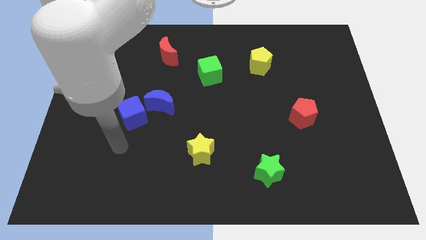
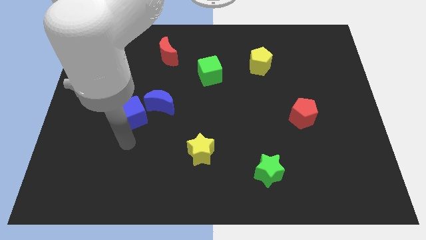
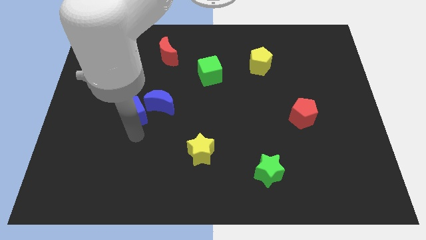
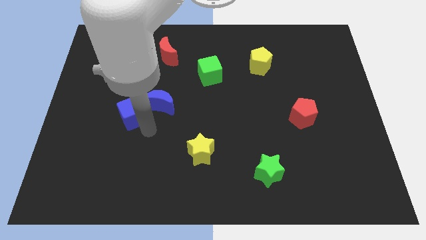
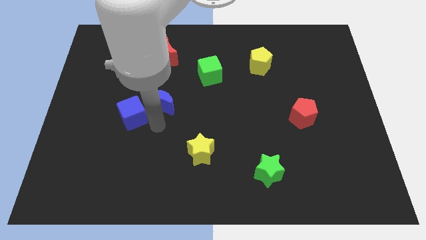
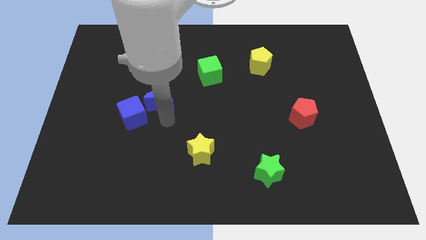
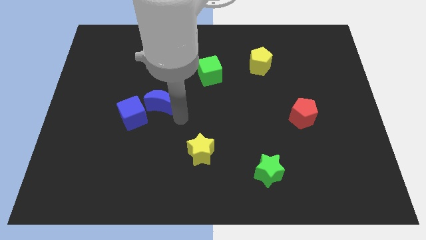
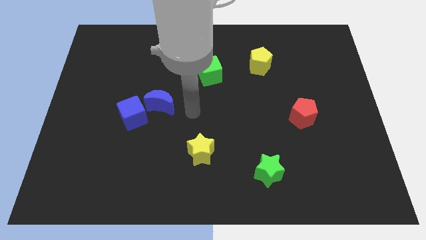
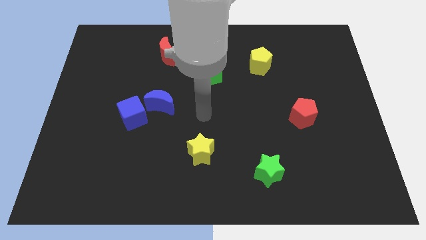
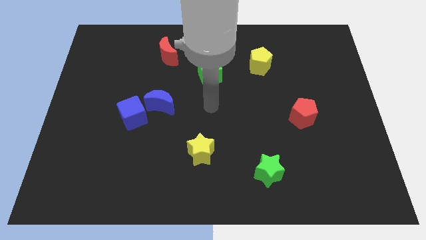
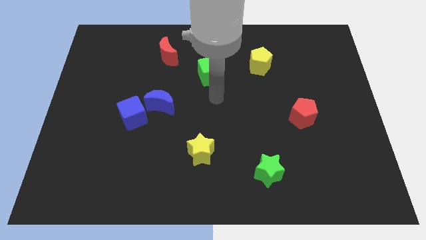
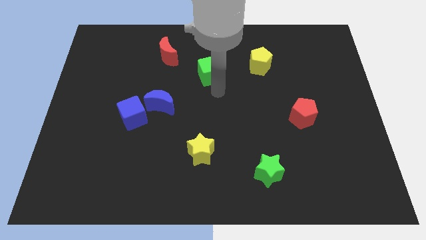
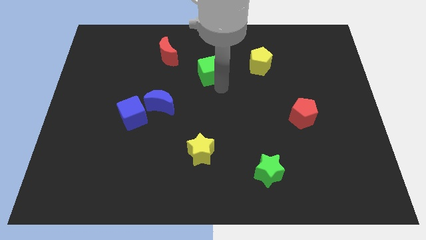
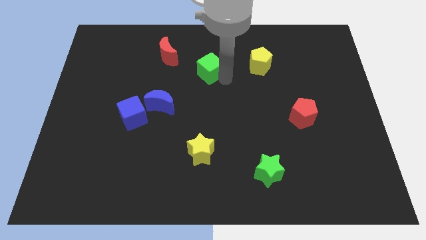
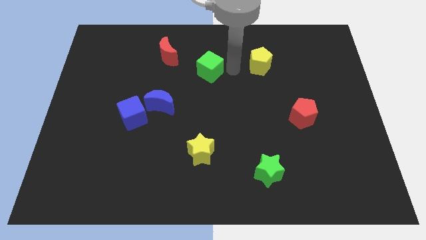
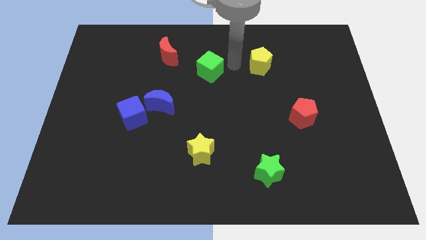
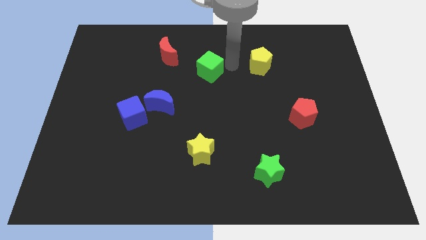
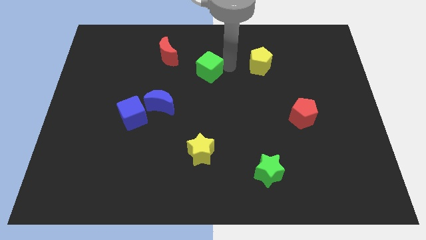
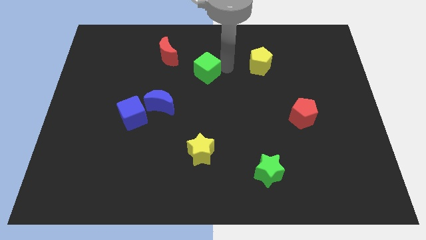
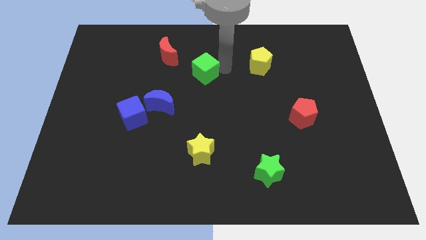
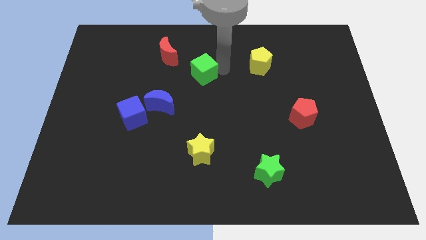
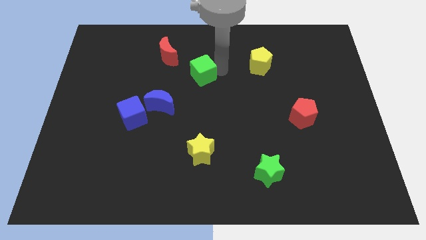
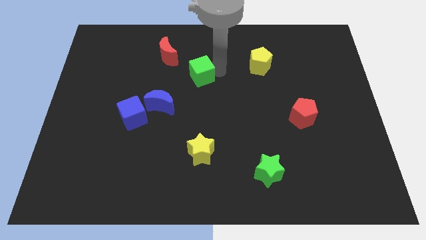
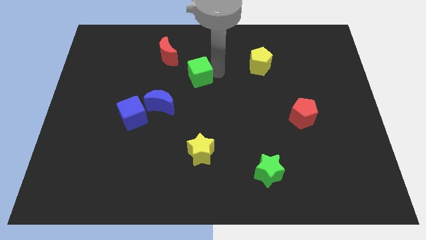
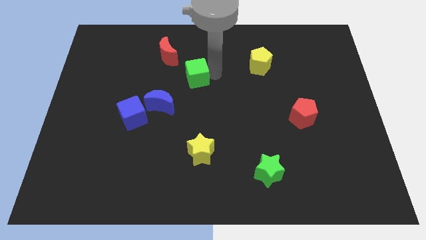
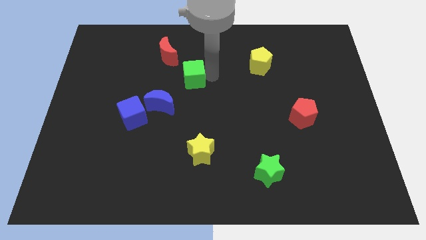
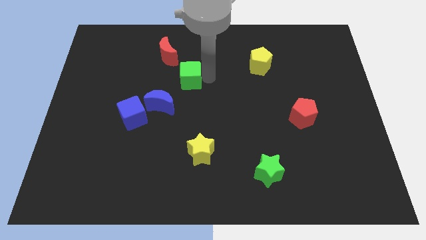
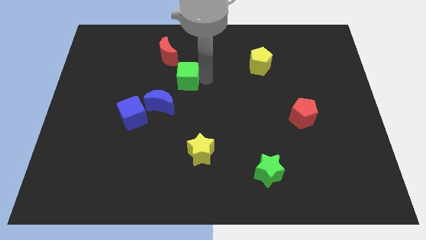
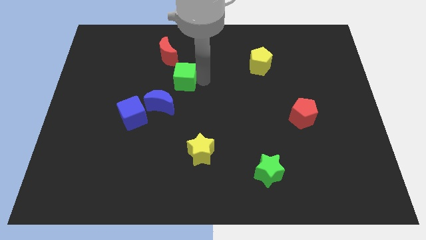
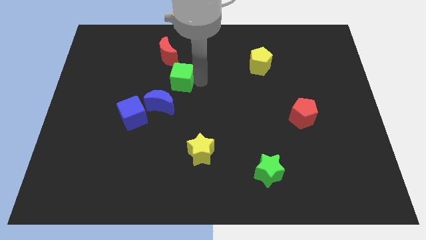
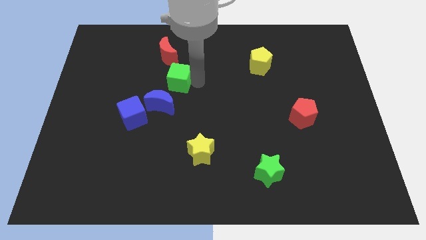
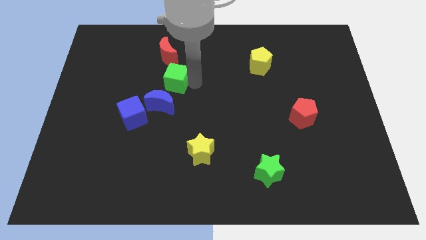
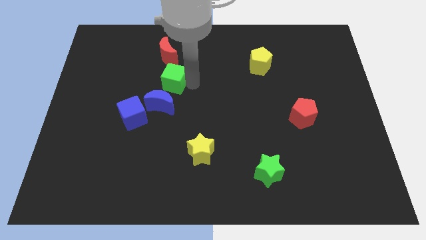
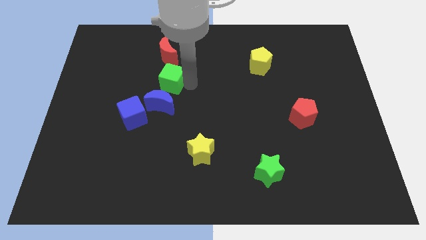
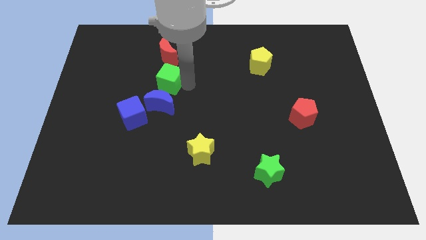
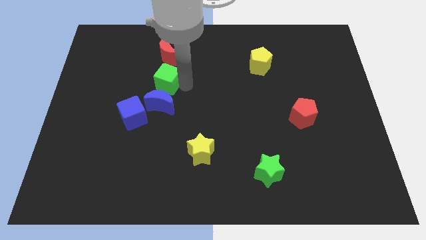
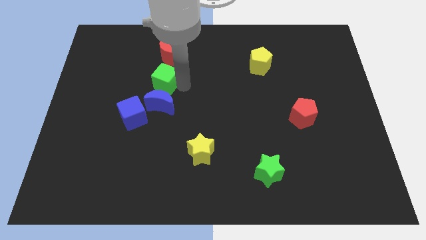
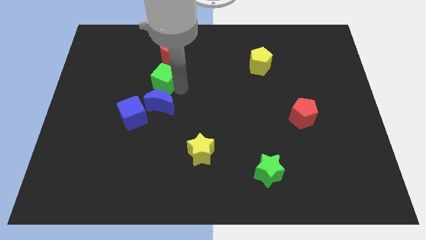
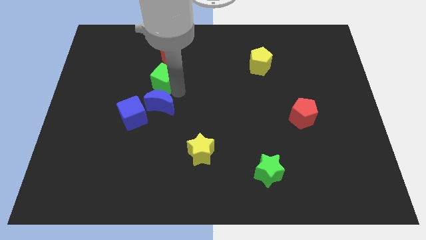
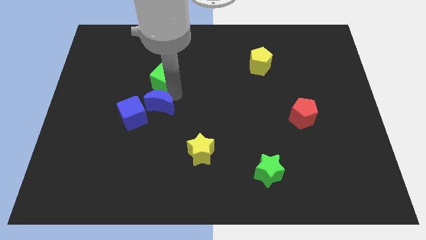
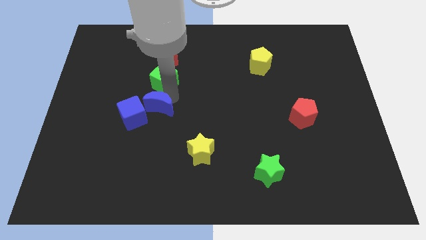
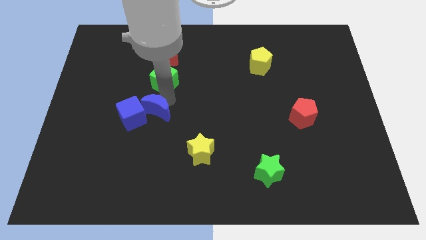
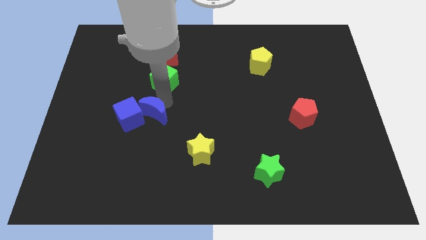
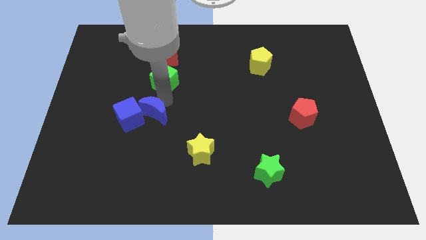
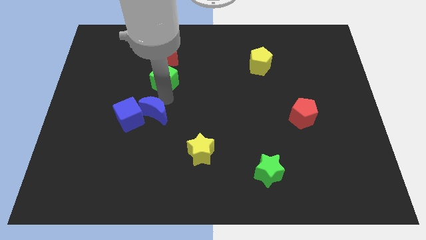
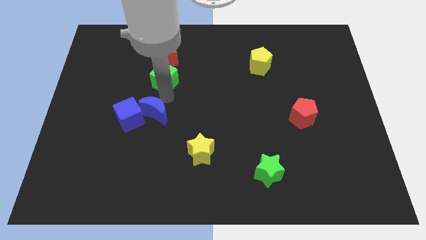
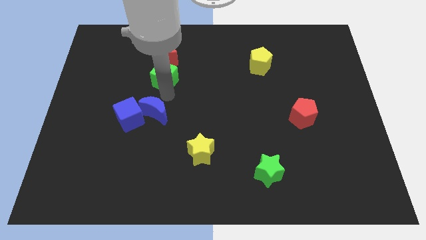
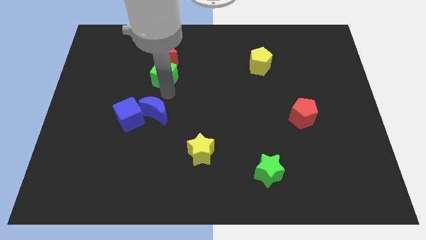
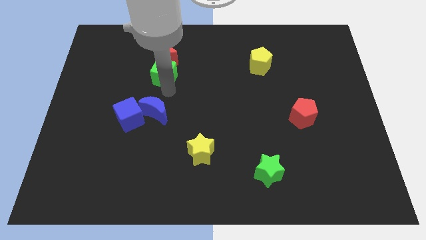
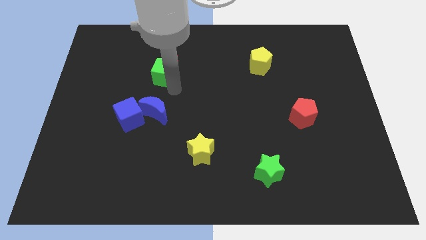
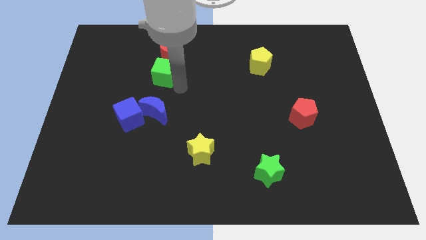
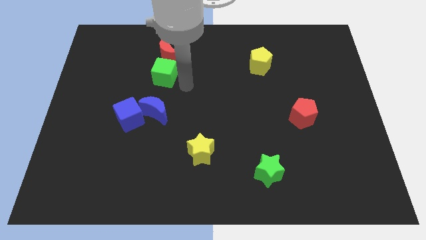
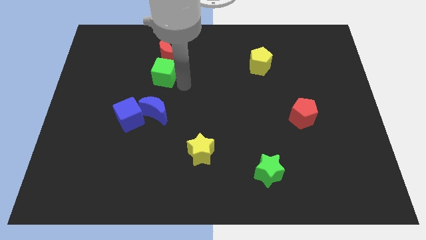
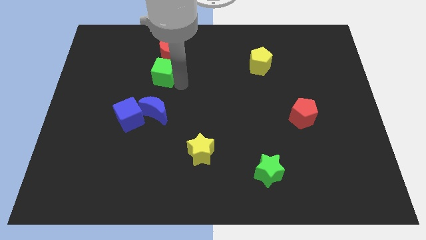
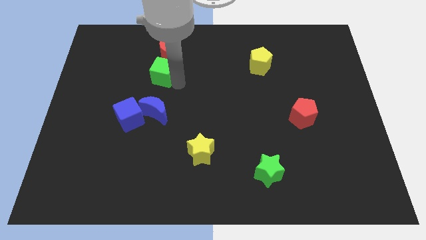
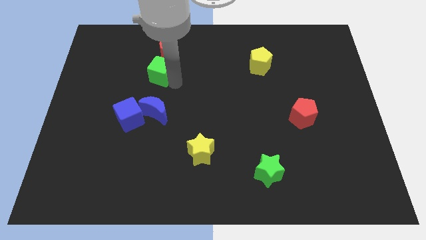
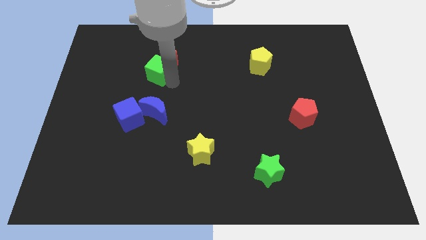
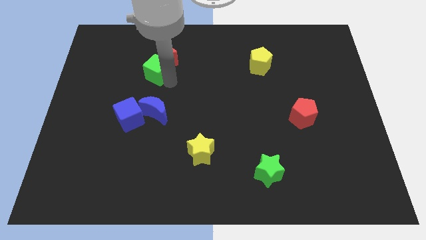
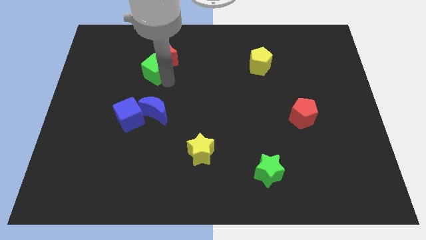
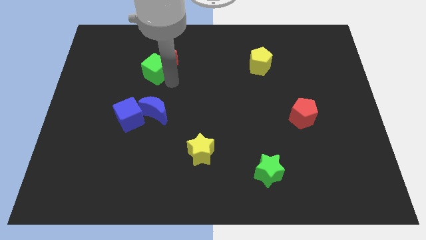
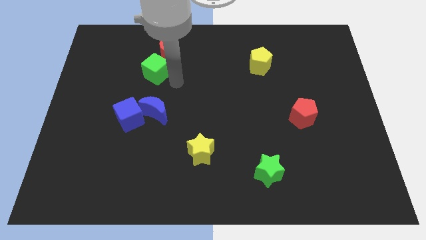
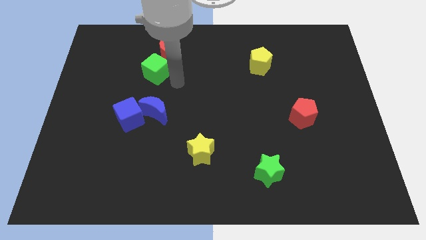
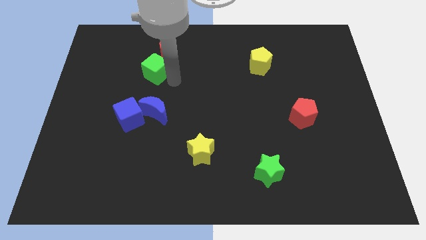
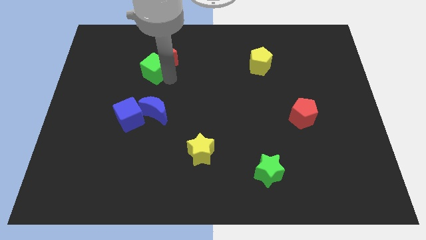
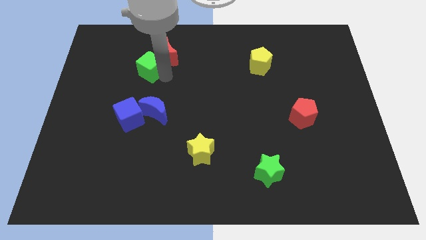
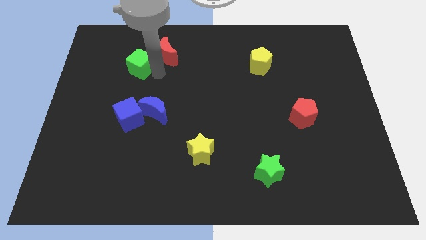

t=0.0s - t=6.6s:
slide the green cube just left of the red moon
